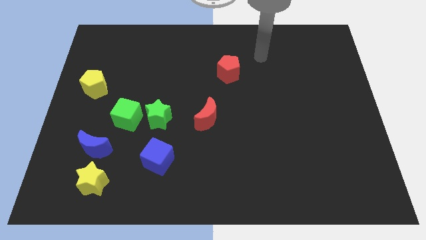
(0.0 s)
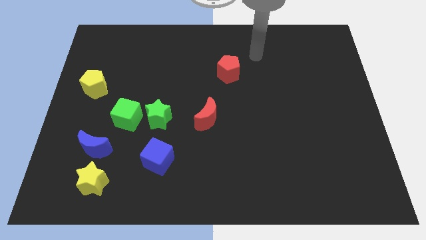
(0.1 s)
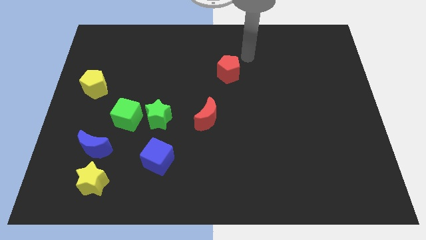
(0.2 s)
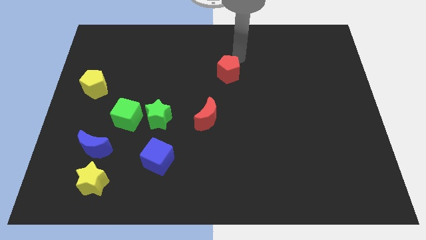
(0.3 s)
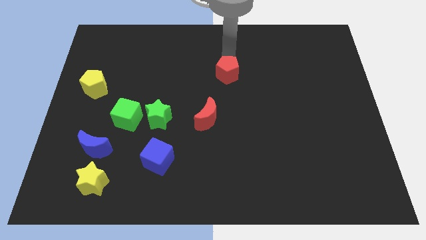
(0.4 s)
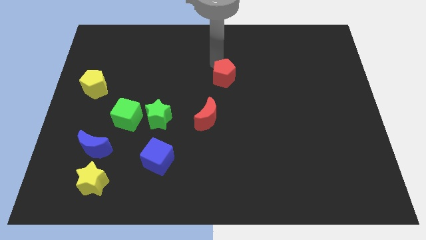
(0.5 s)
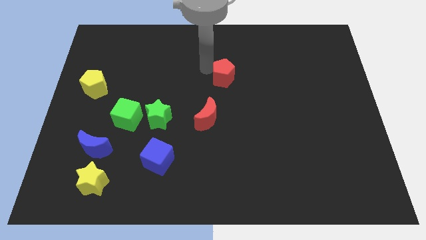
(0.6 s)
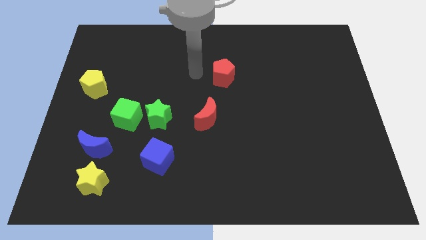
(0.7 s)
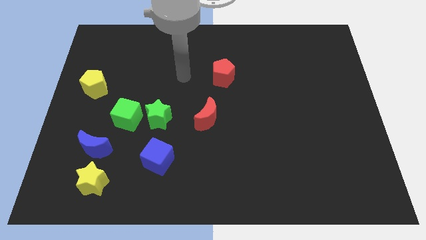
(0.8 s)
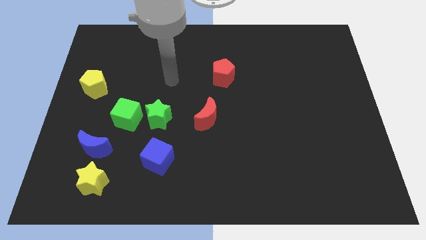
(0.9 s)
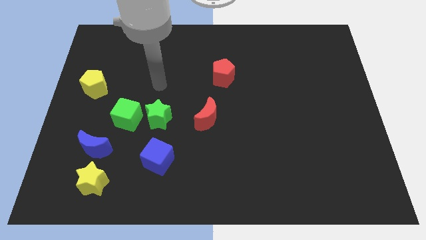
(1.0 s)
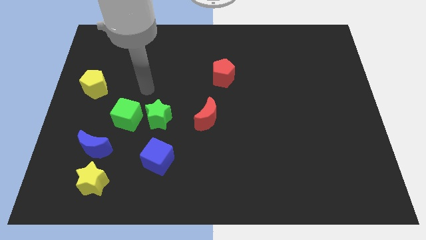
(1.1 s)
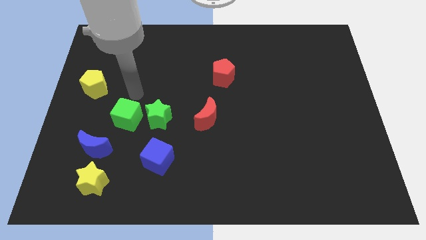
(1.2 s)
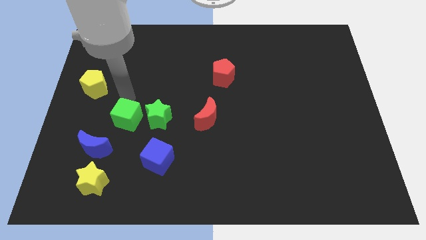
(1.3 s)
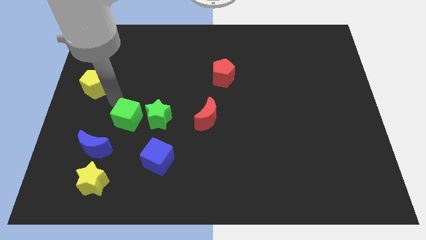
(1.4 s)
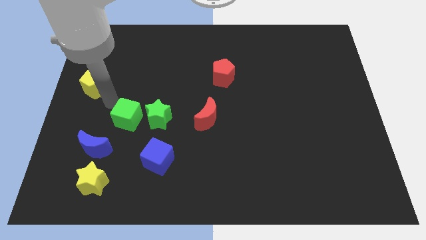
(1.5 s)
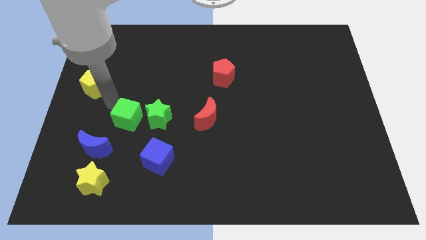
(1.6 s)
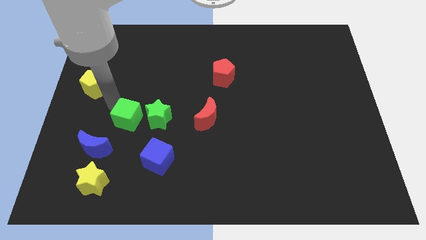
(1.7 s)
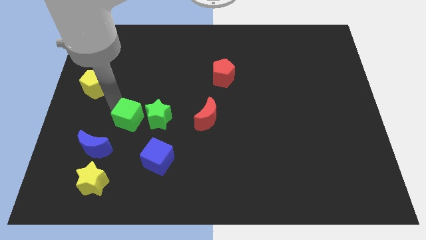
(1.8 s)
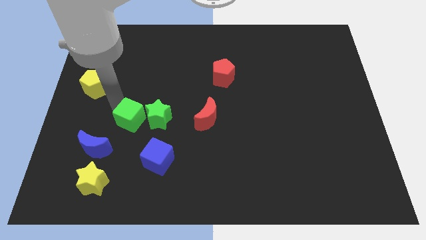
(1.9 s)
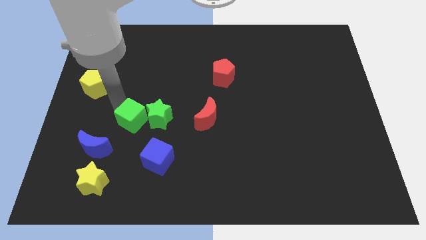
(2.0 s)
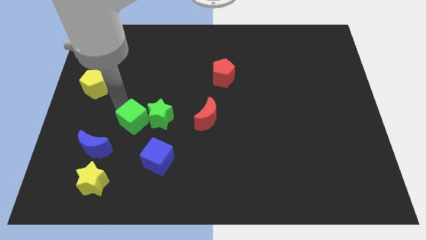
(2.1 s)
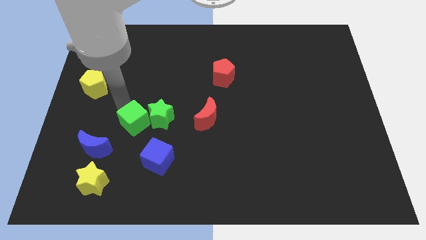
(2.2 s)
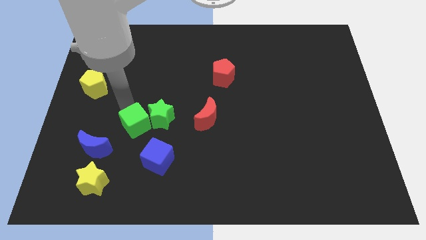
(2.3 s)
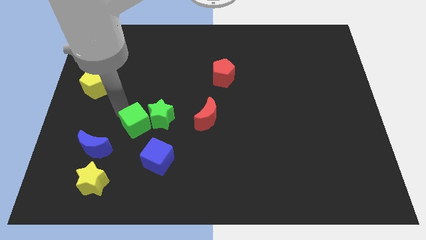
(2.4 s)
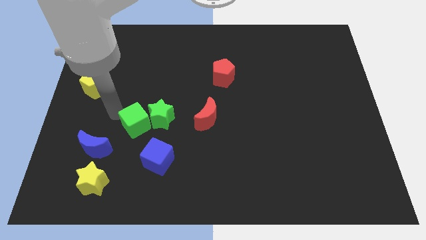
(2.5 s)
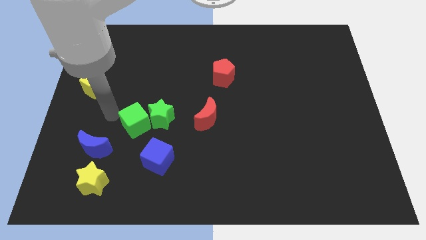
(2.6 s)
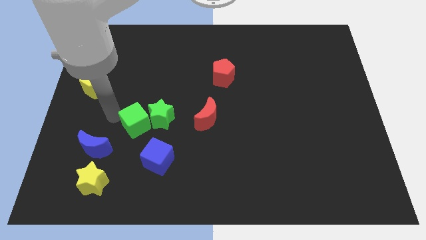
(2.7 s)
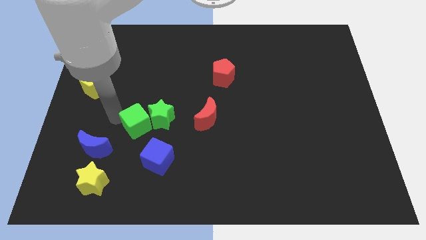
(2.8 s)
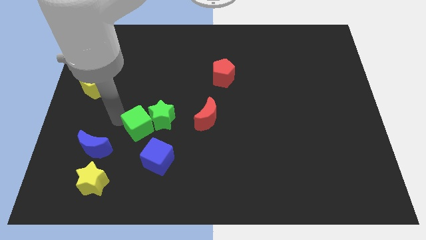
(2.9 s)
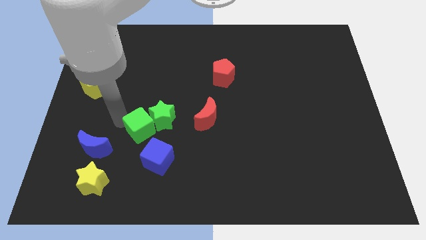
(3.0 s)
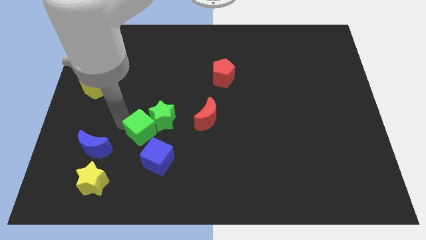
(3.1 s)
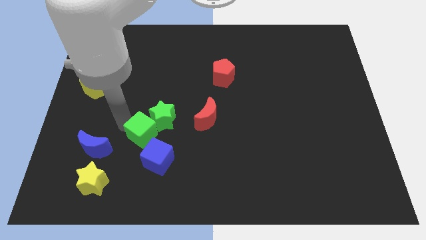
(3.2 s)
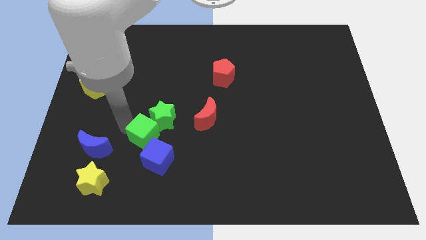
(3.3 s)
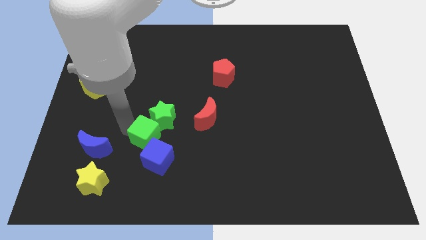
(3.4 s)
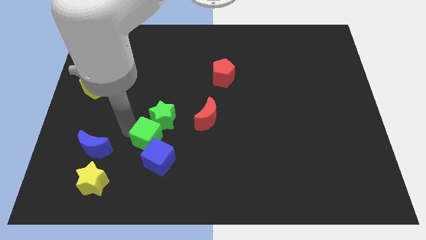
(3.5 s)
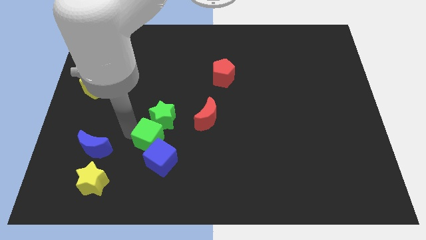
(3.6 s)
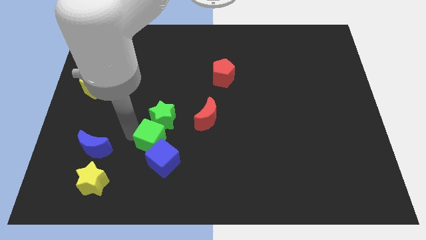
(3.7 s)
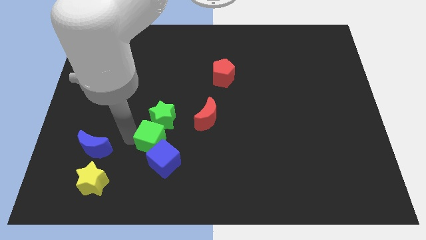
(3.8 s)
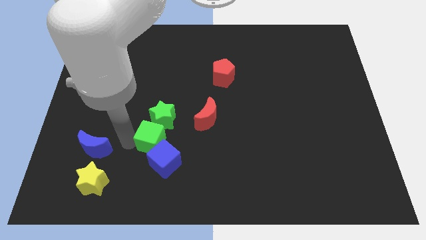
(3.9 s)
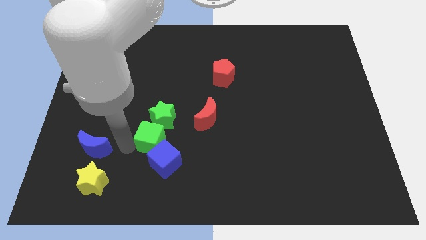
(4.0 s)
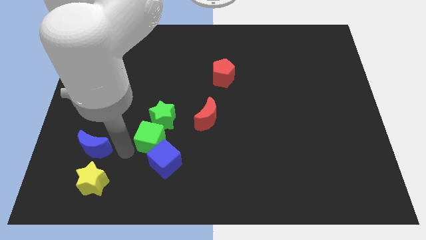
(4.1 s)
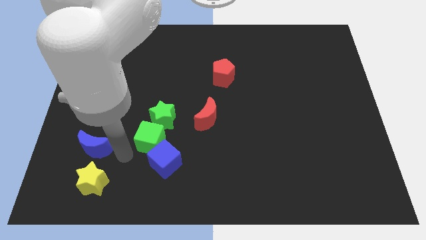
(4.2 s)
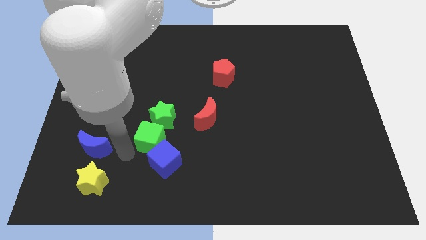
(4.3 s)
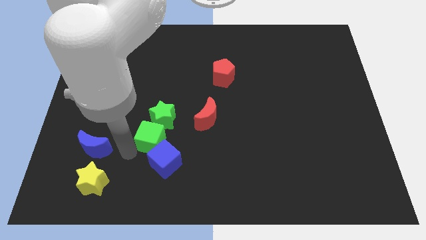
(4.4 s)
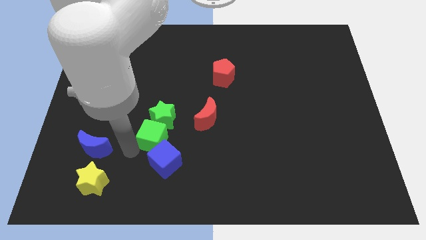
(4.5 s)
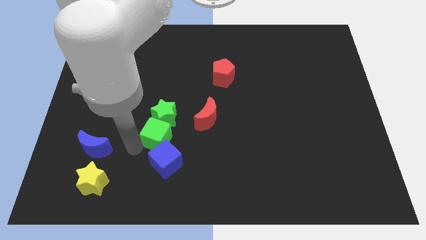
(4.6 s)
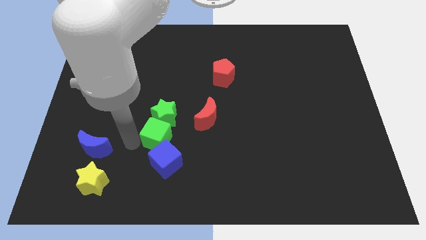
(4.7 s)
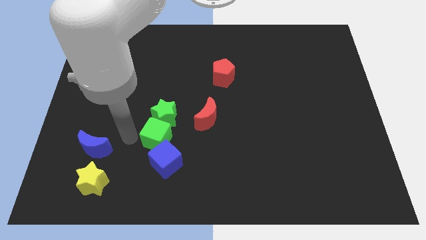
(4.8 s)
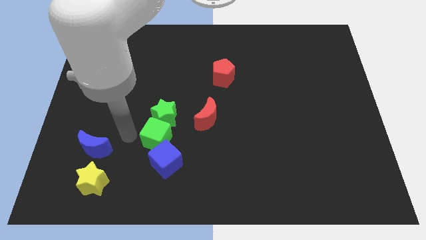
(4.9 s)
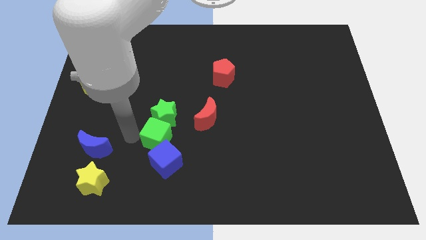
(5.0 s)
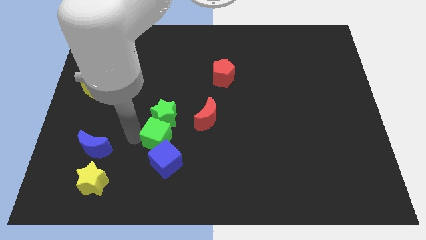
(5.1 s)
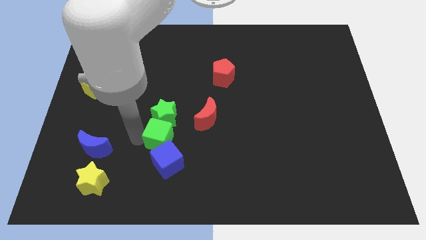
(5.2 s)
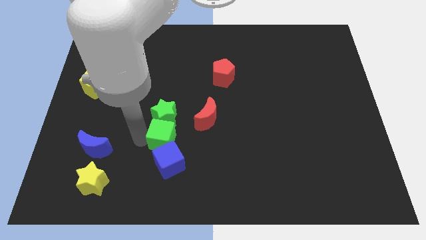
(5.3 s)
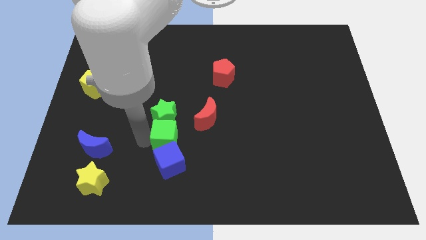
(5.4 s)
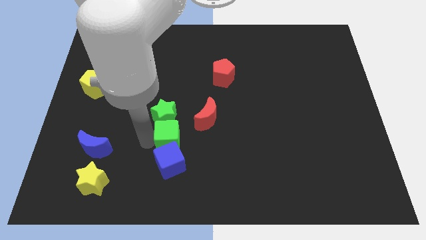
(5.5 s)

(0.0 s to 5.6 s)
slide the green cube diagonally up and to the right of the blue cube

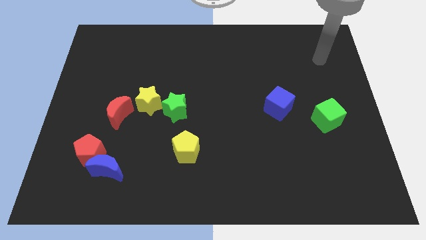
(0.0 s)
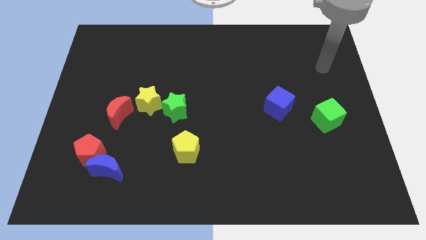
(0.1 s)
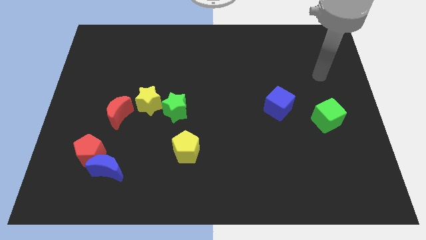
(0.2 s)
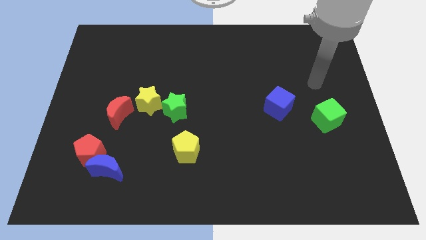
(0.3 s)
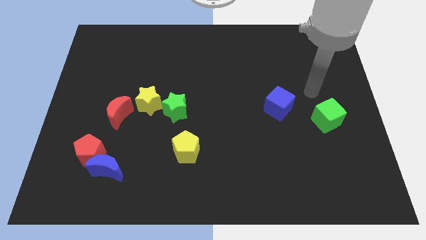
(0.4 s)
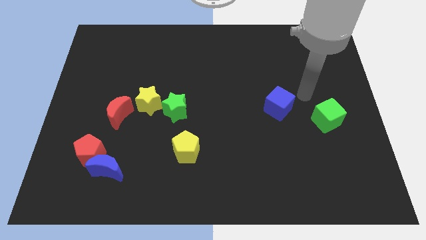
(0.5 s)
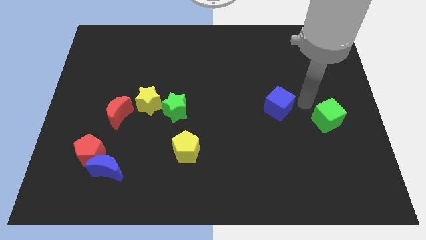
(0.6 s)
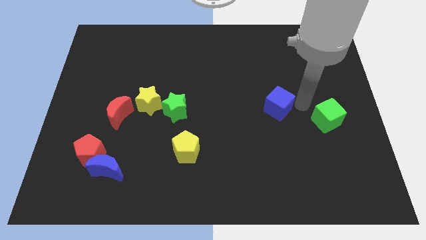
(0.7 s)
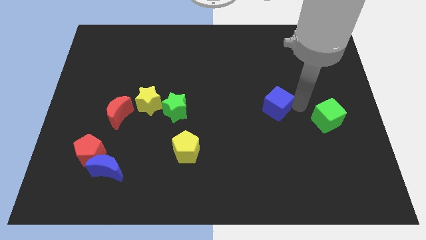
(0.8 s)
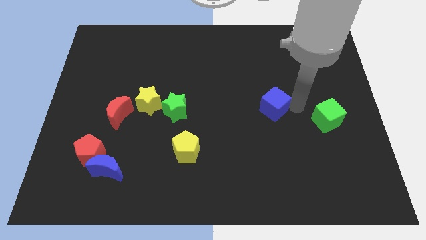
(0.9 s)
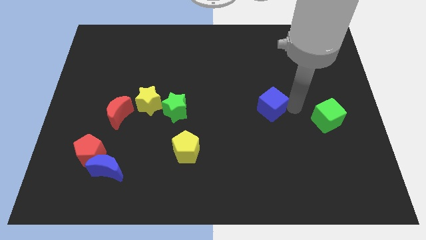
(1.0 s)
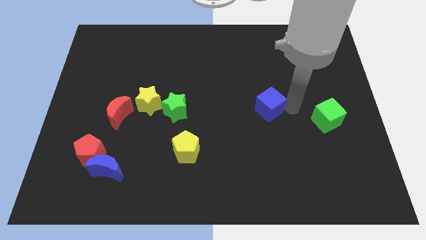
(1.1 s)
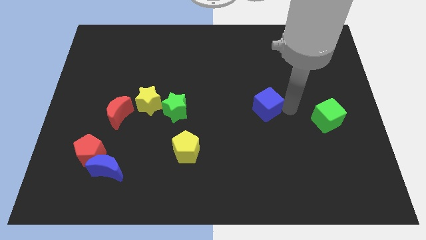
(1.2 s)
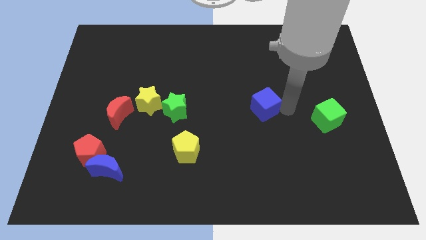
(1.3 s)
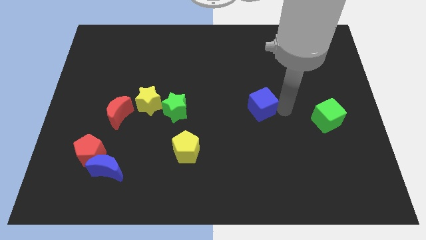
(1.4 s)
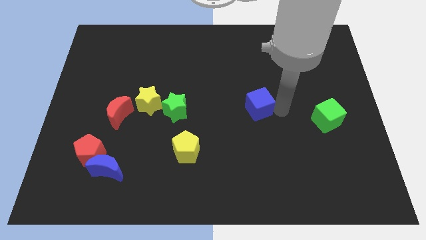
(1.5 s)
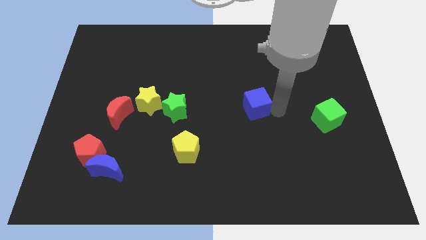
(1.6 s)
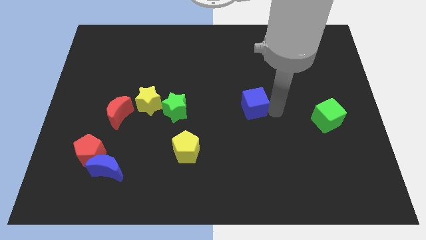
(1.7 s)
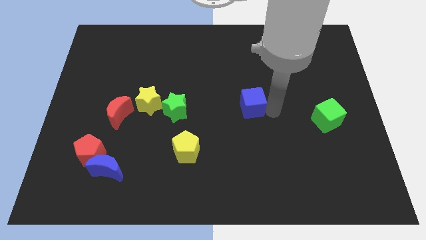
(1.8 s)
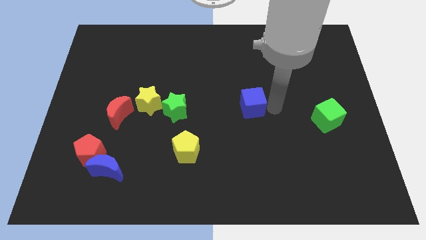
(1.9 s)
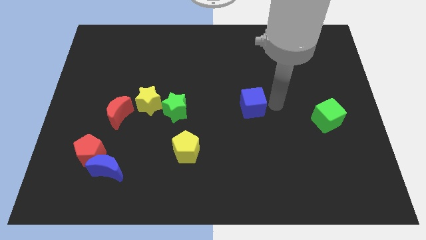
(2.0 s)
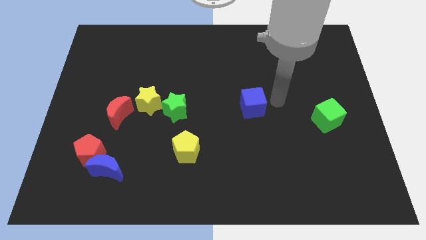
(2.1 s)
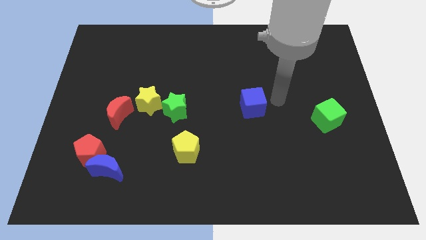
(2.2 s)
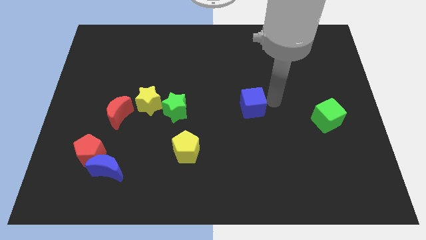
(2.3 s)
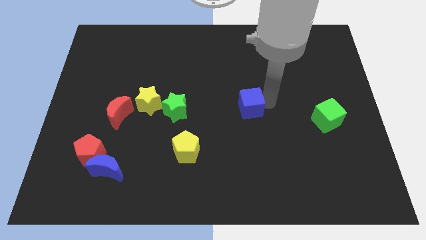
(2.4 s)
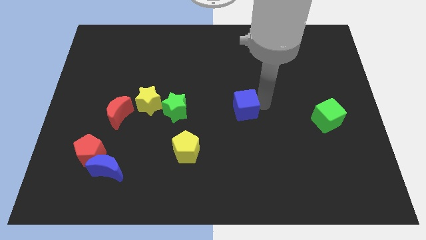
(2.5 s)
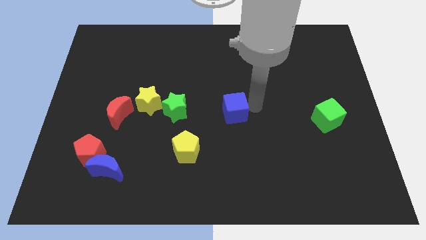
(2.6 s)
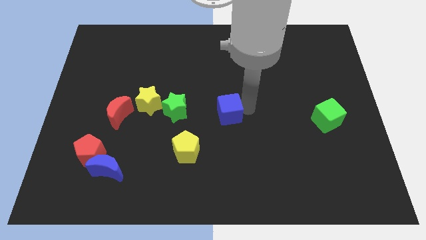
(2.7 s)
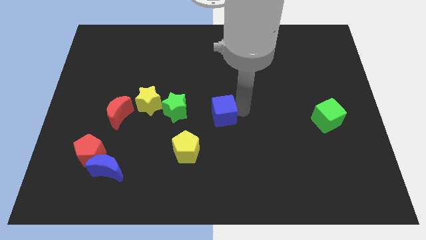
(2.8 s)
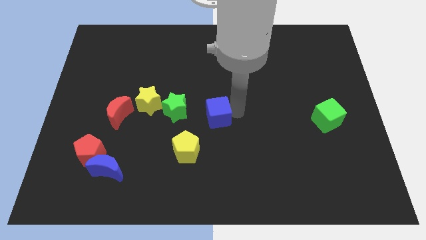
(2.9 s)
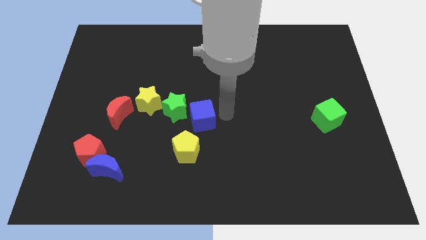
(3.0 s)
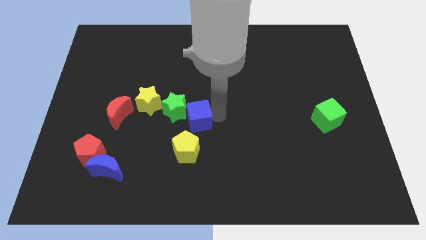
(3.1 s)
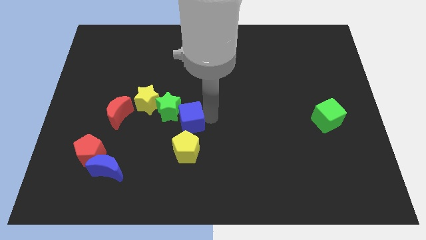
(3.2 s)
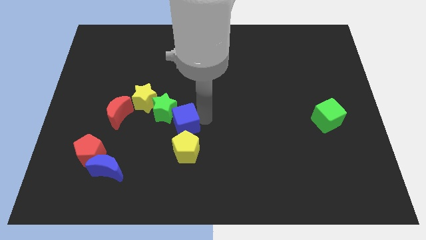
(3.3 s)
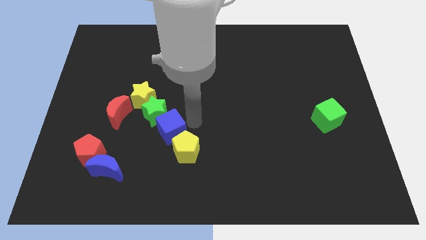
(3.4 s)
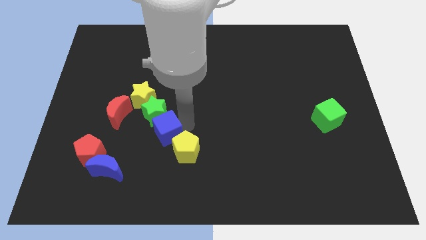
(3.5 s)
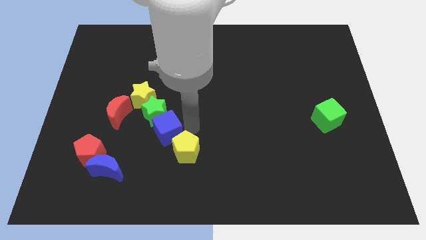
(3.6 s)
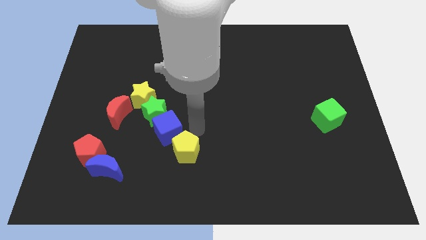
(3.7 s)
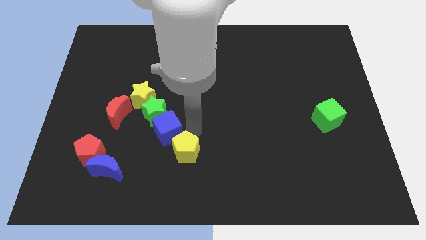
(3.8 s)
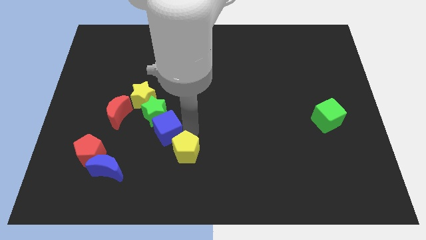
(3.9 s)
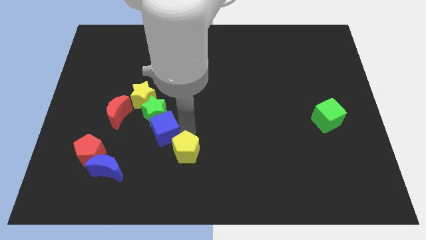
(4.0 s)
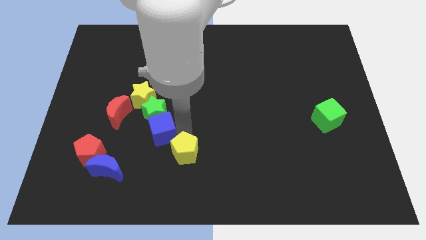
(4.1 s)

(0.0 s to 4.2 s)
slide the blue cube to the bottom right side of the red moon
